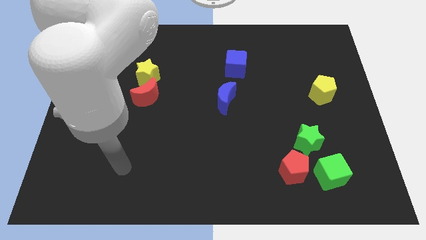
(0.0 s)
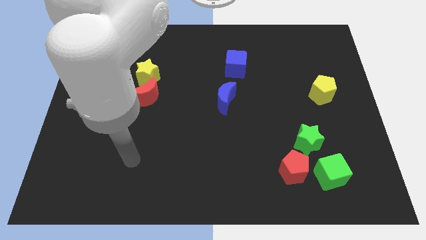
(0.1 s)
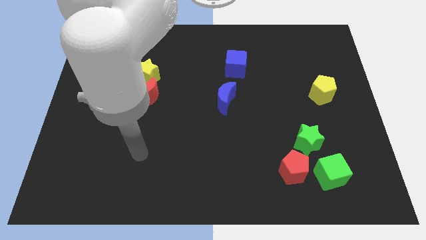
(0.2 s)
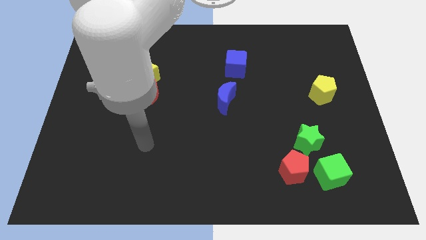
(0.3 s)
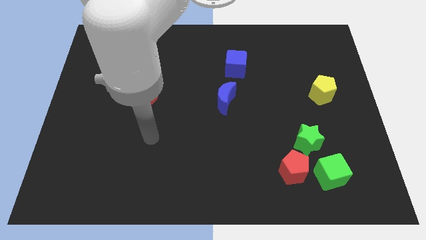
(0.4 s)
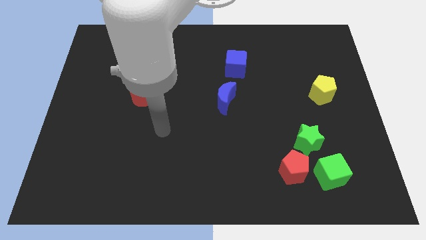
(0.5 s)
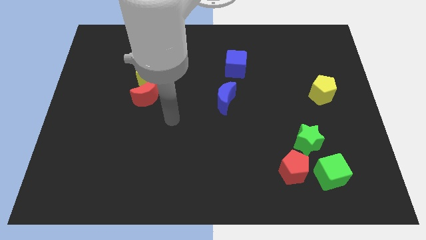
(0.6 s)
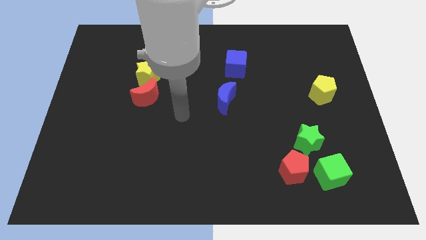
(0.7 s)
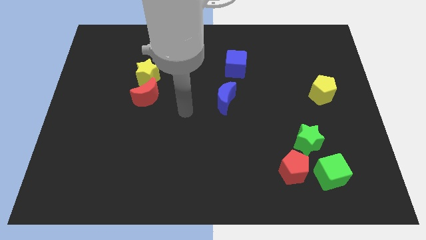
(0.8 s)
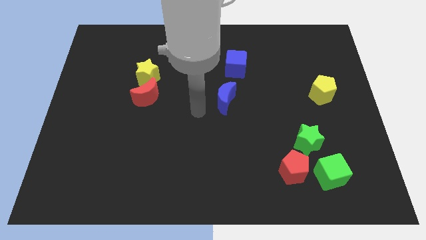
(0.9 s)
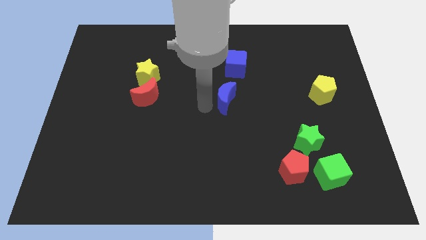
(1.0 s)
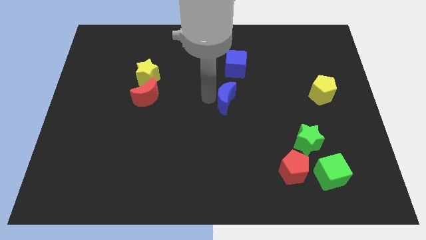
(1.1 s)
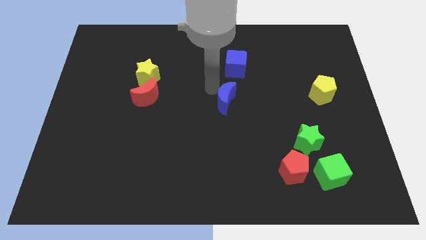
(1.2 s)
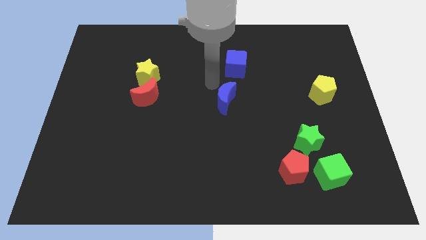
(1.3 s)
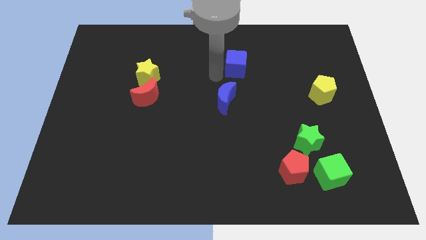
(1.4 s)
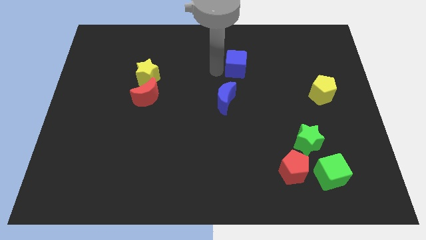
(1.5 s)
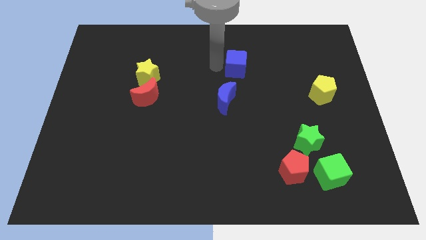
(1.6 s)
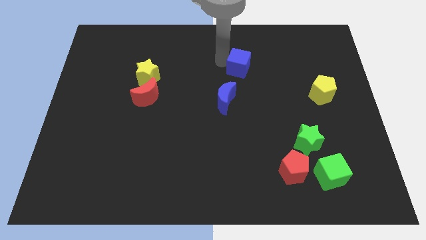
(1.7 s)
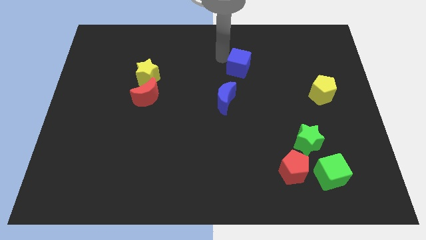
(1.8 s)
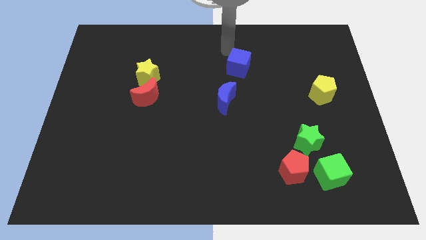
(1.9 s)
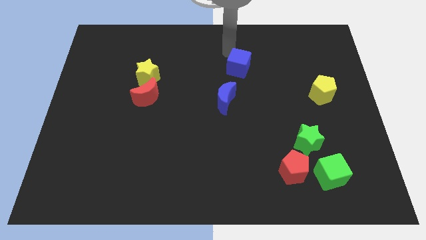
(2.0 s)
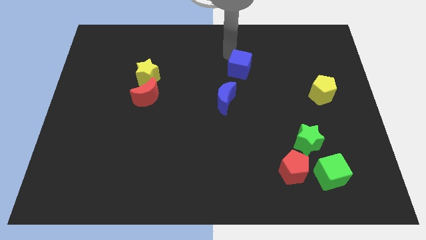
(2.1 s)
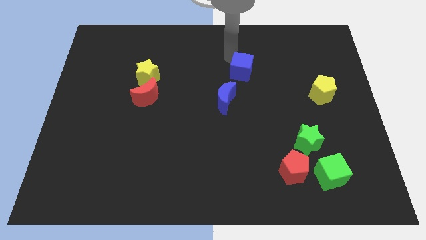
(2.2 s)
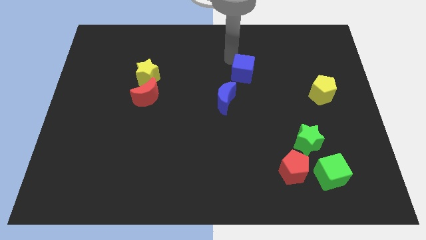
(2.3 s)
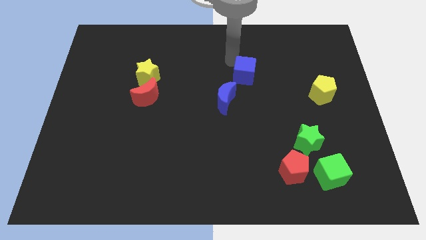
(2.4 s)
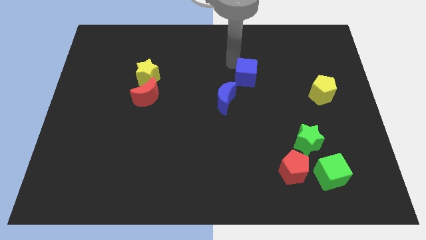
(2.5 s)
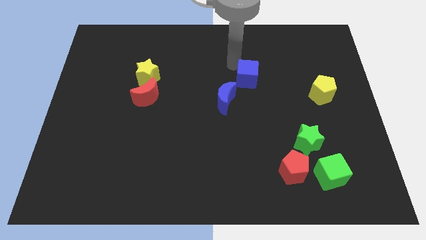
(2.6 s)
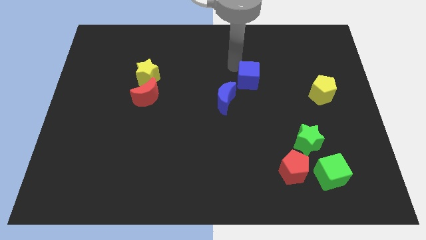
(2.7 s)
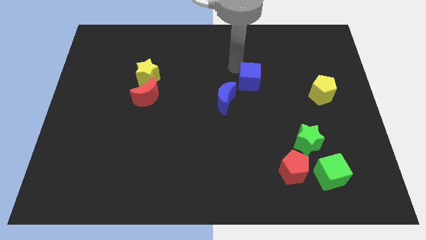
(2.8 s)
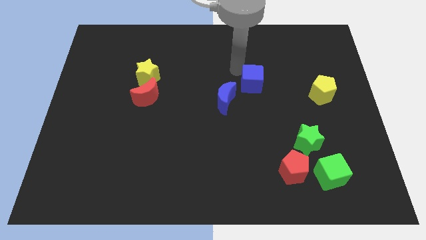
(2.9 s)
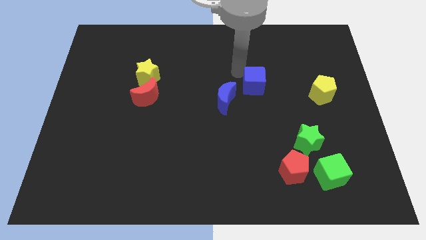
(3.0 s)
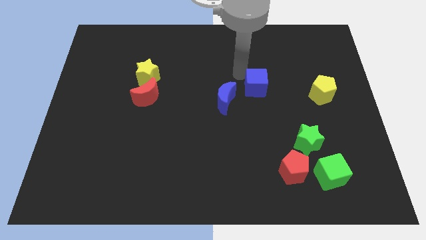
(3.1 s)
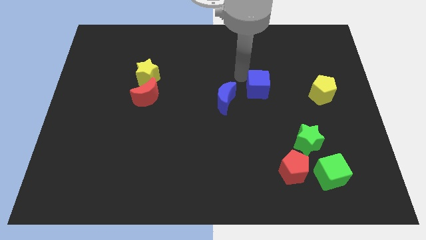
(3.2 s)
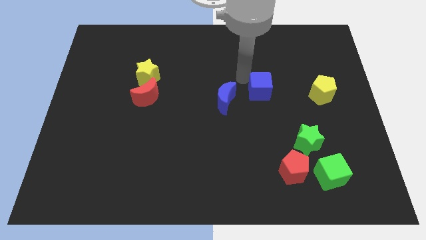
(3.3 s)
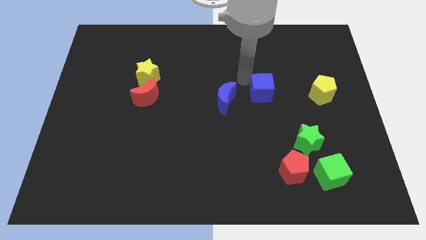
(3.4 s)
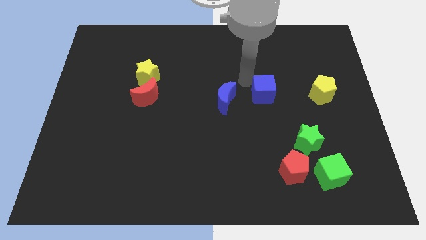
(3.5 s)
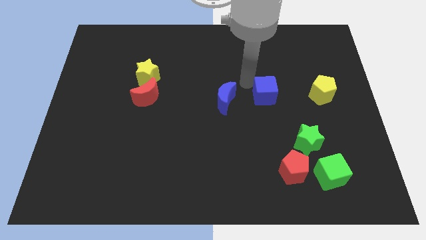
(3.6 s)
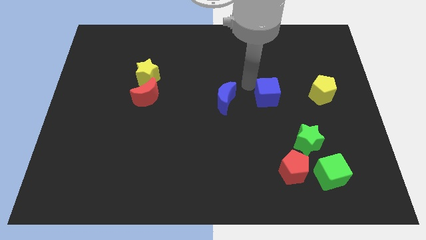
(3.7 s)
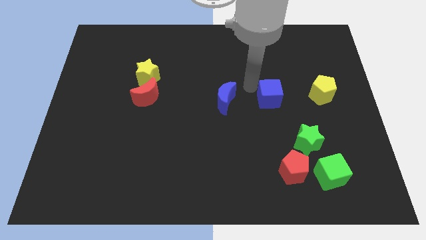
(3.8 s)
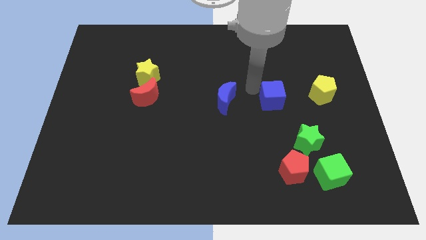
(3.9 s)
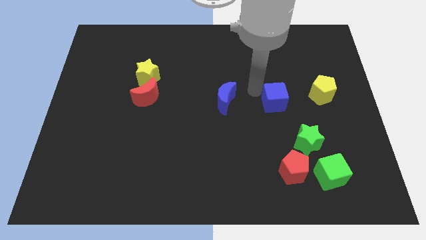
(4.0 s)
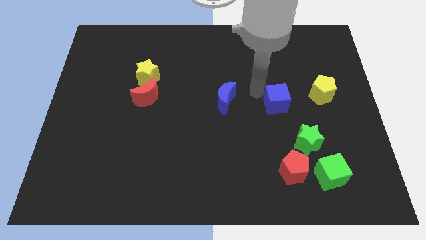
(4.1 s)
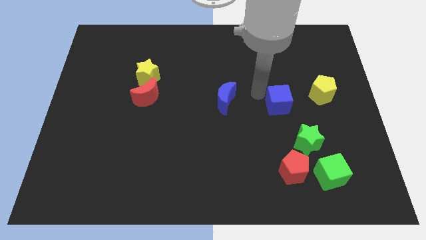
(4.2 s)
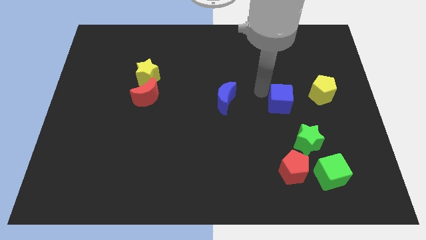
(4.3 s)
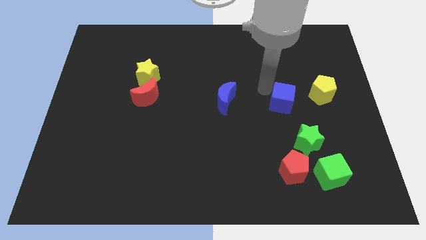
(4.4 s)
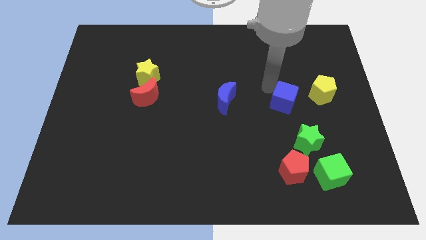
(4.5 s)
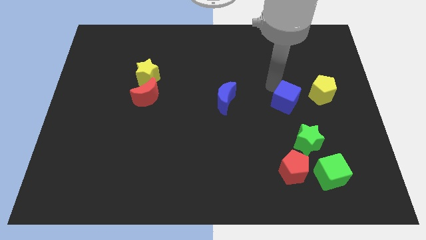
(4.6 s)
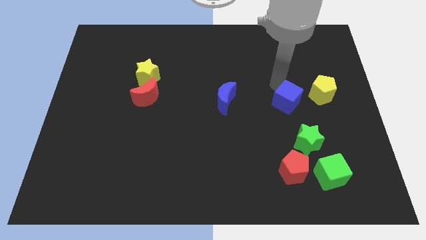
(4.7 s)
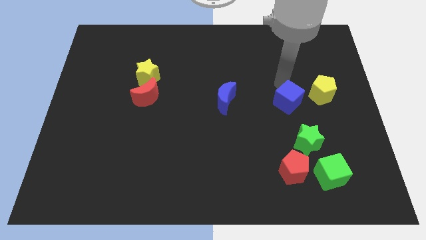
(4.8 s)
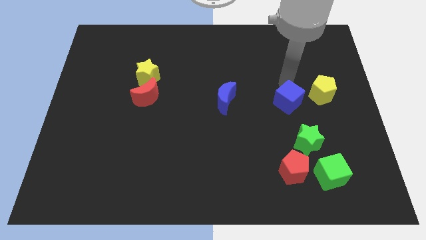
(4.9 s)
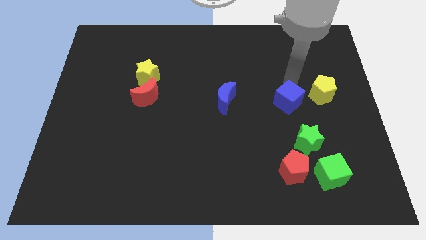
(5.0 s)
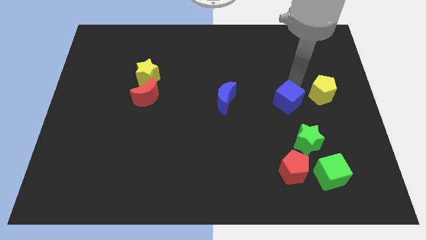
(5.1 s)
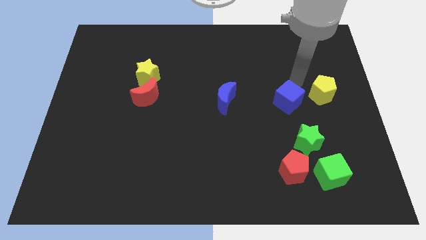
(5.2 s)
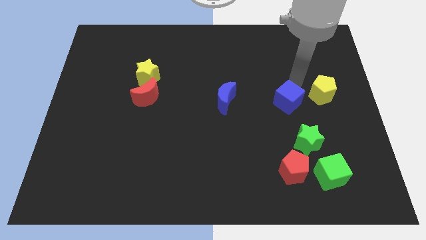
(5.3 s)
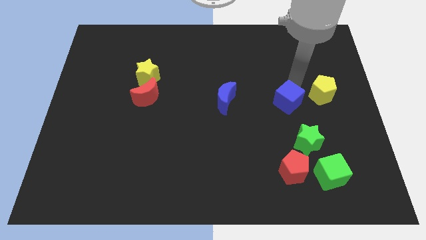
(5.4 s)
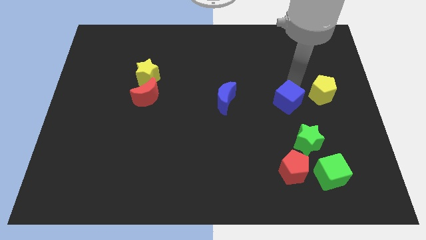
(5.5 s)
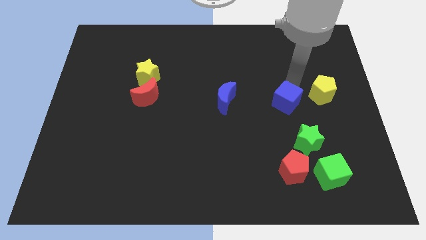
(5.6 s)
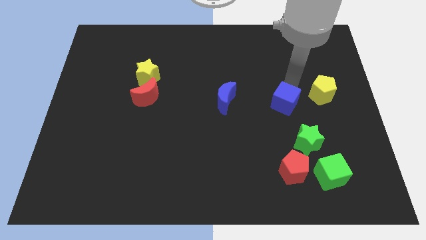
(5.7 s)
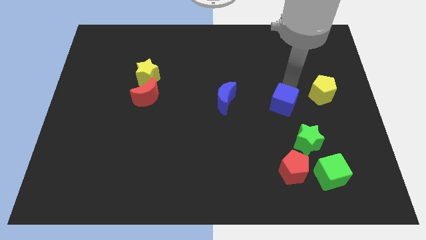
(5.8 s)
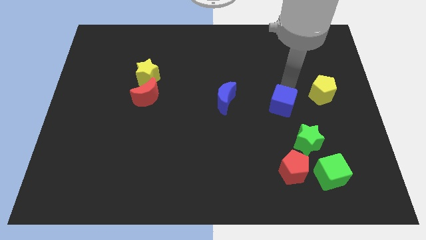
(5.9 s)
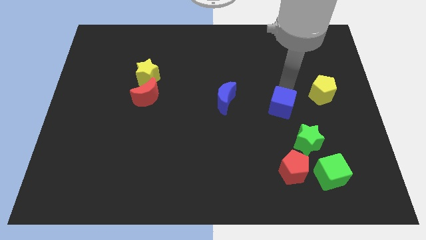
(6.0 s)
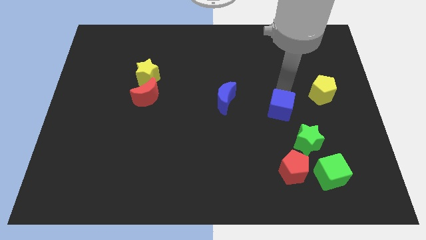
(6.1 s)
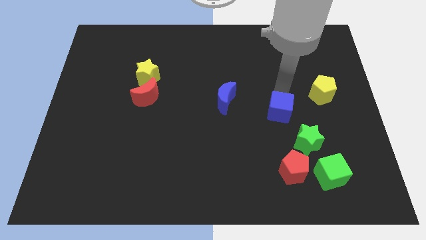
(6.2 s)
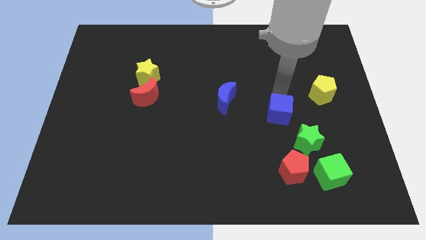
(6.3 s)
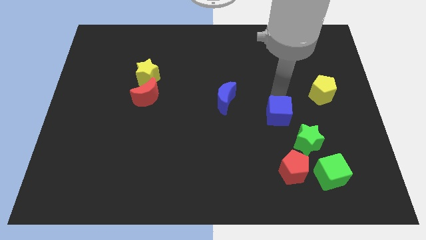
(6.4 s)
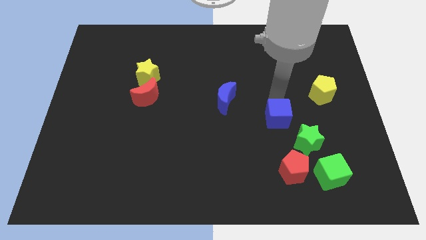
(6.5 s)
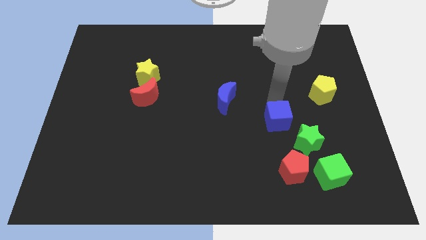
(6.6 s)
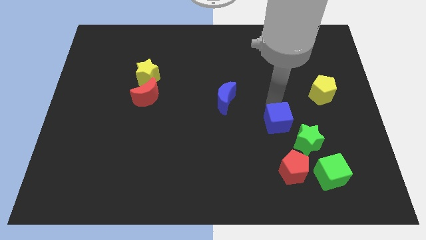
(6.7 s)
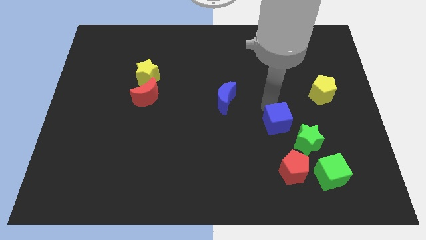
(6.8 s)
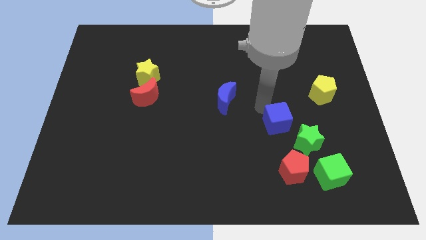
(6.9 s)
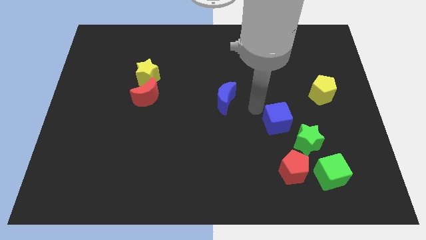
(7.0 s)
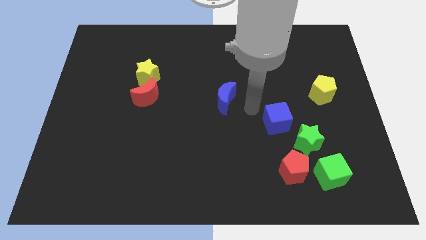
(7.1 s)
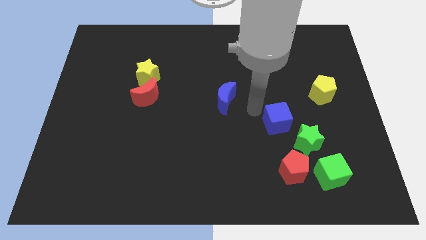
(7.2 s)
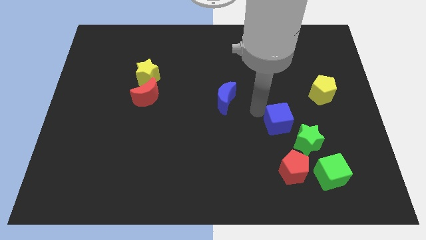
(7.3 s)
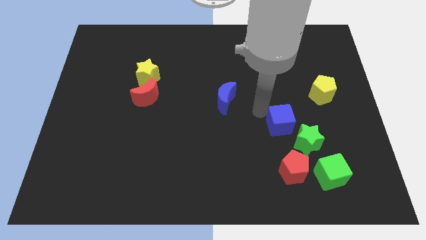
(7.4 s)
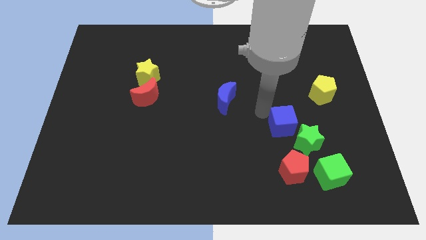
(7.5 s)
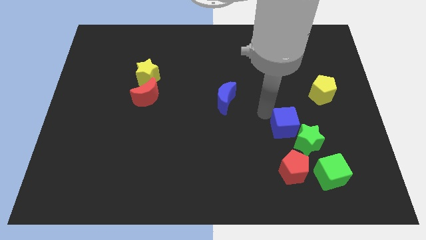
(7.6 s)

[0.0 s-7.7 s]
put the blue cube towards the green star
